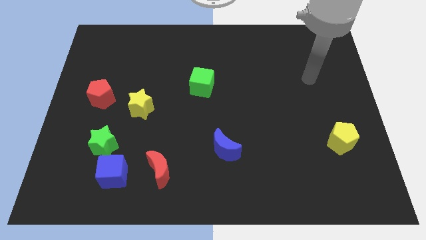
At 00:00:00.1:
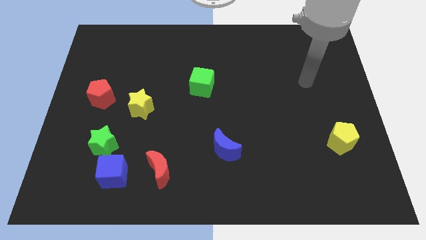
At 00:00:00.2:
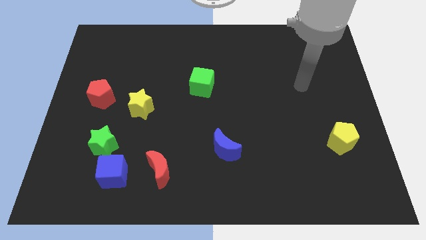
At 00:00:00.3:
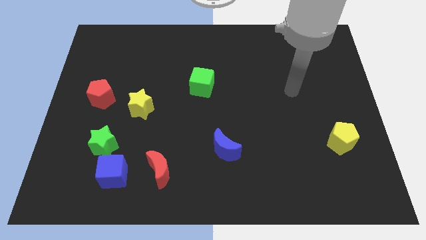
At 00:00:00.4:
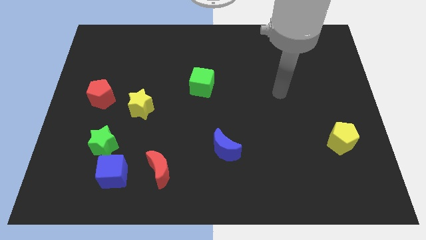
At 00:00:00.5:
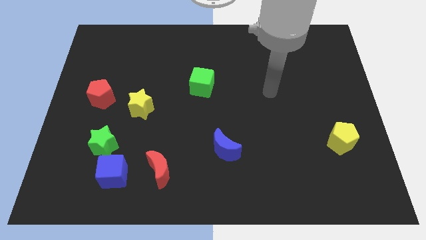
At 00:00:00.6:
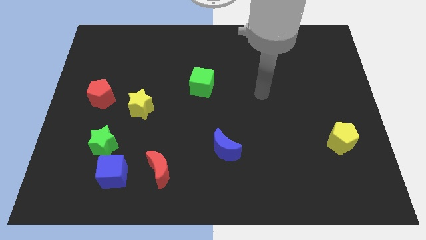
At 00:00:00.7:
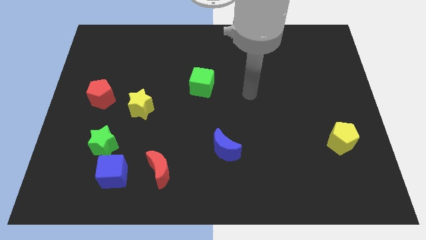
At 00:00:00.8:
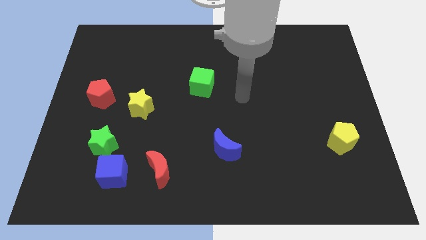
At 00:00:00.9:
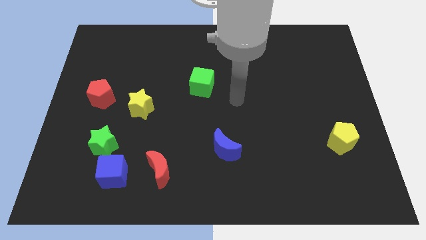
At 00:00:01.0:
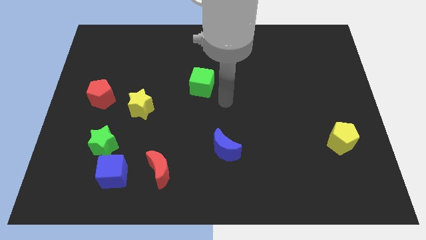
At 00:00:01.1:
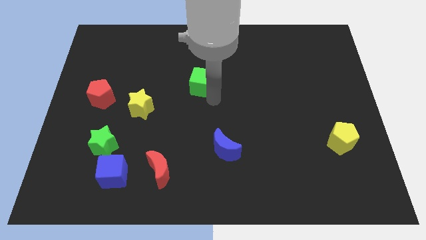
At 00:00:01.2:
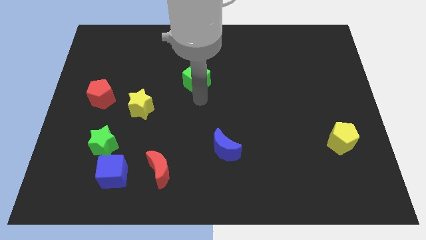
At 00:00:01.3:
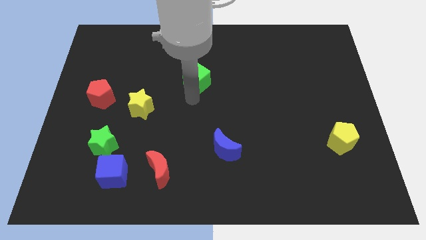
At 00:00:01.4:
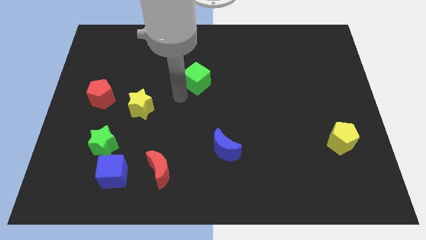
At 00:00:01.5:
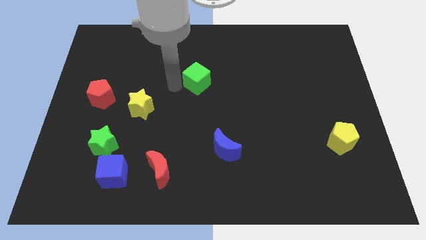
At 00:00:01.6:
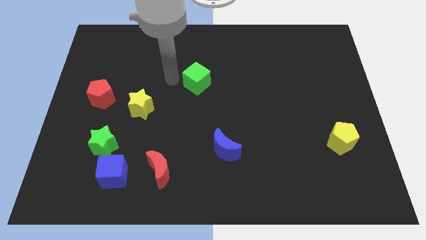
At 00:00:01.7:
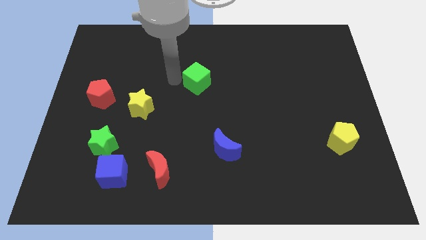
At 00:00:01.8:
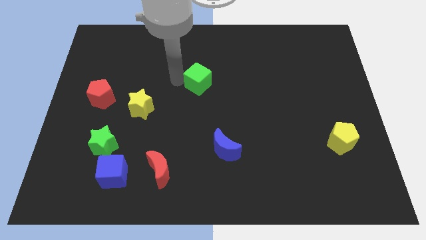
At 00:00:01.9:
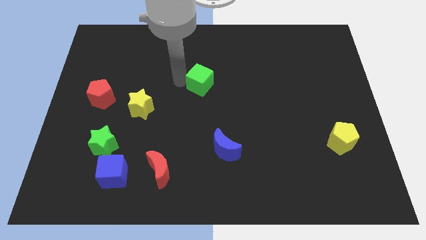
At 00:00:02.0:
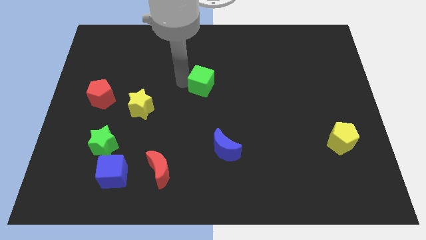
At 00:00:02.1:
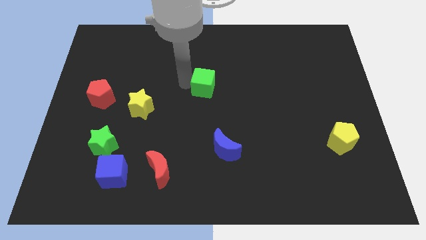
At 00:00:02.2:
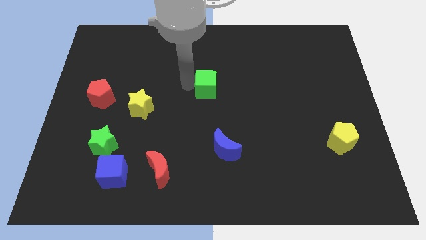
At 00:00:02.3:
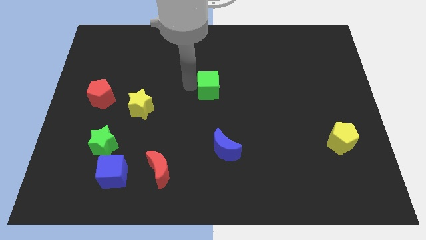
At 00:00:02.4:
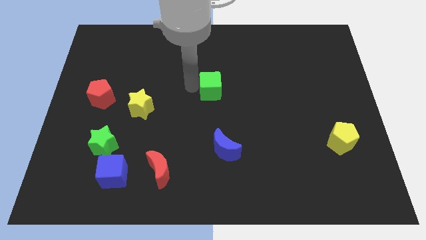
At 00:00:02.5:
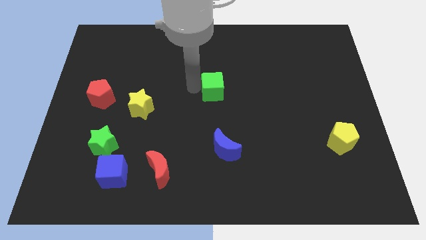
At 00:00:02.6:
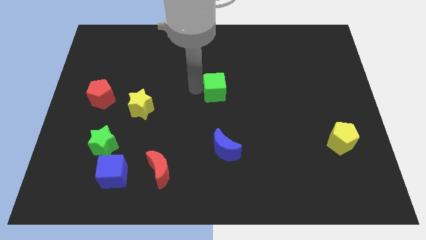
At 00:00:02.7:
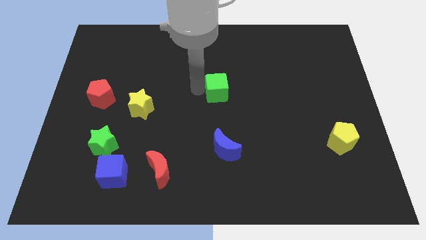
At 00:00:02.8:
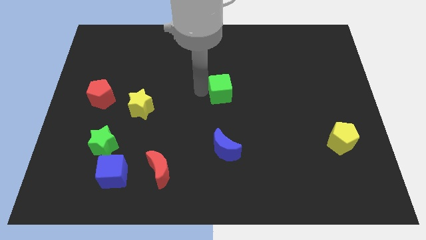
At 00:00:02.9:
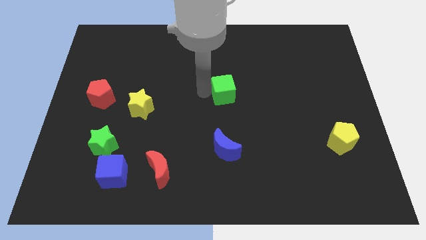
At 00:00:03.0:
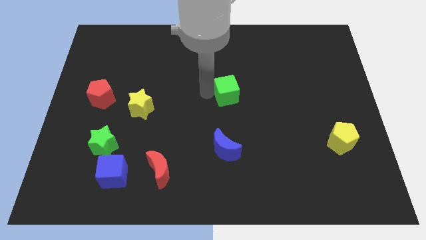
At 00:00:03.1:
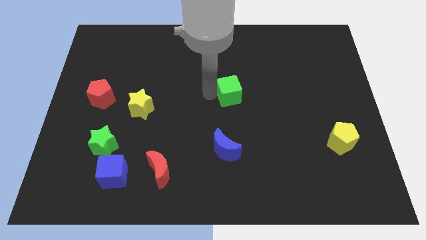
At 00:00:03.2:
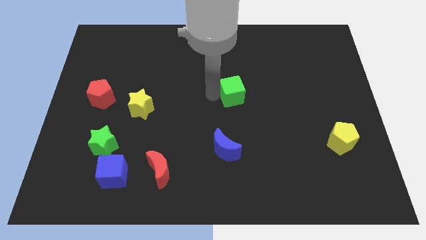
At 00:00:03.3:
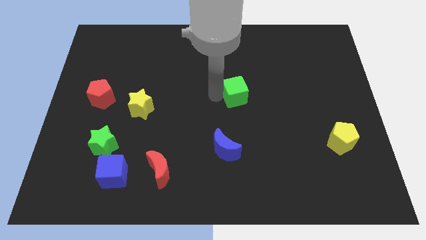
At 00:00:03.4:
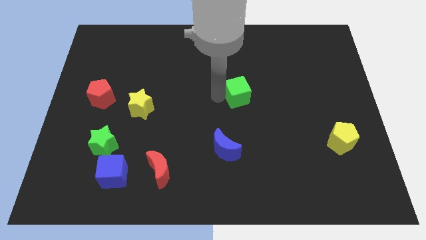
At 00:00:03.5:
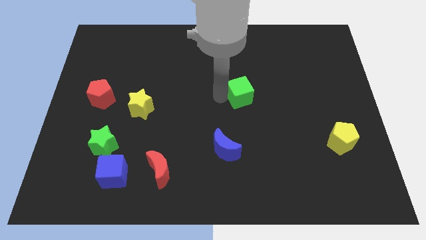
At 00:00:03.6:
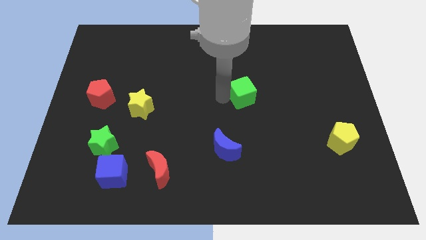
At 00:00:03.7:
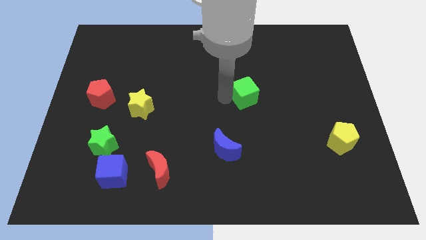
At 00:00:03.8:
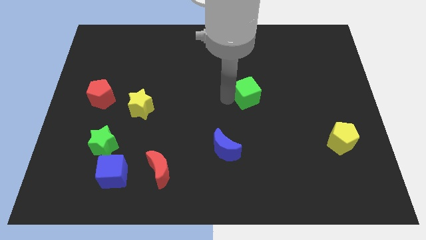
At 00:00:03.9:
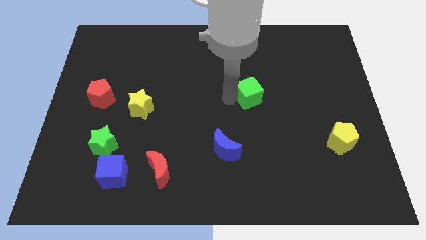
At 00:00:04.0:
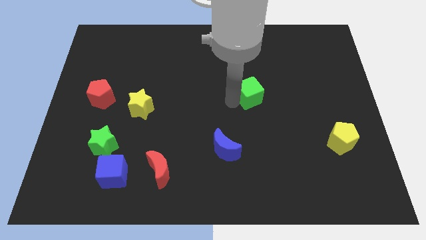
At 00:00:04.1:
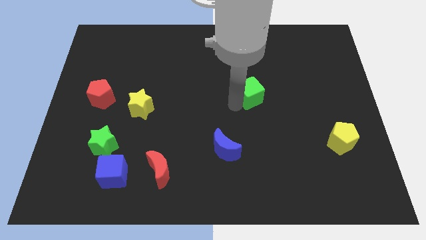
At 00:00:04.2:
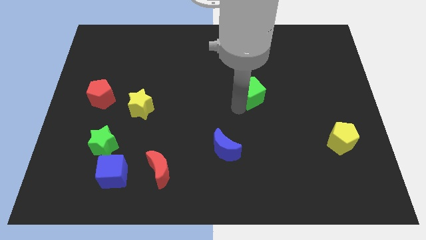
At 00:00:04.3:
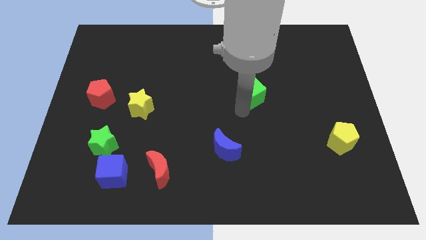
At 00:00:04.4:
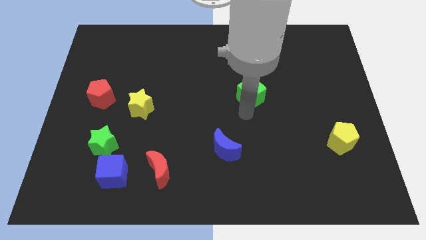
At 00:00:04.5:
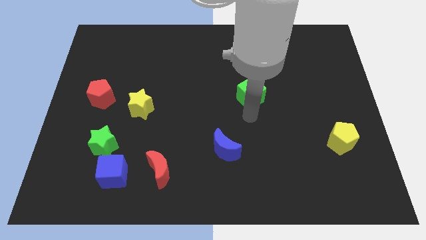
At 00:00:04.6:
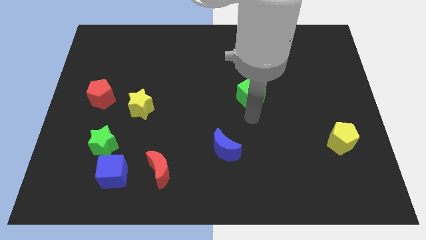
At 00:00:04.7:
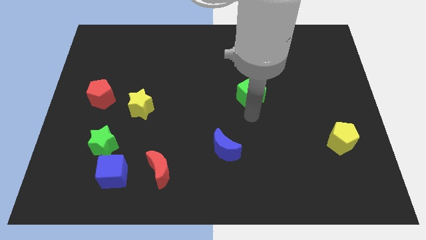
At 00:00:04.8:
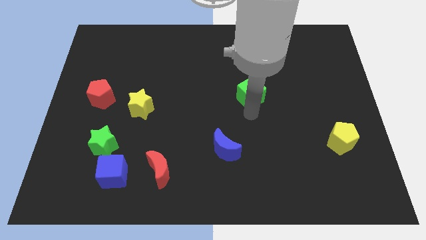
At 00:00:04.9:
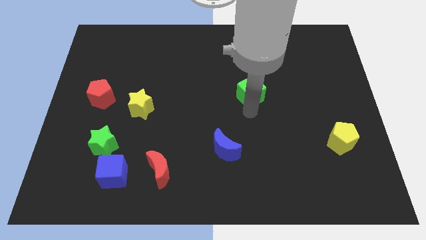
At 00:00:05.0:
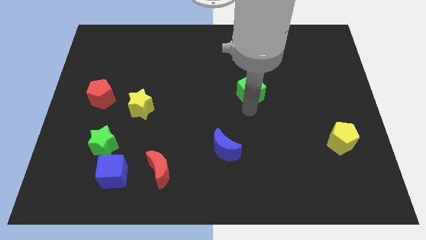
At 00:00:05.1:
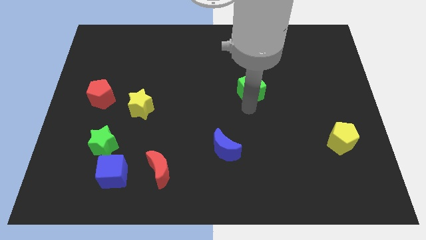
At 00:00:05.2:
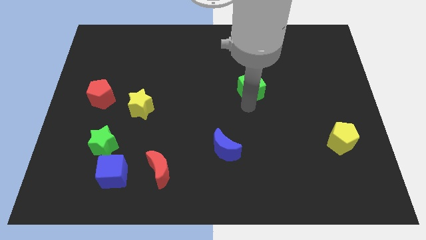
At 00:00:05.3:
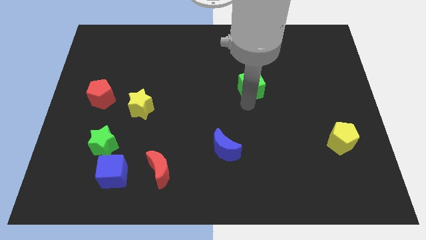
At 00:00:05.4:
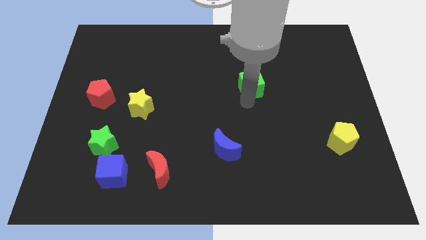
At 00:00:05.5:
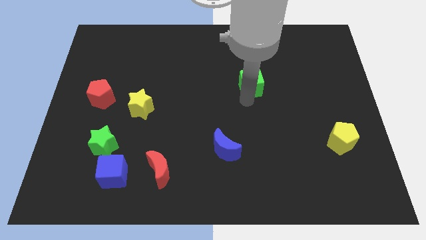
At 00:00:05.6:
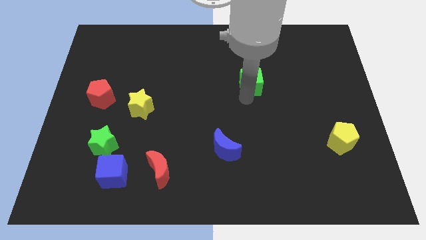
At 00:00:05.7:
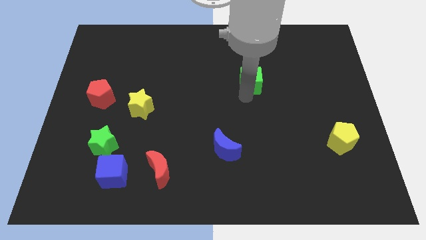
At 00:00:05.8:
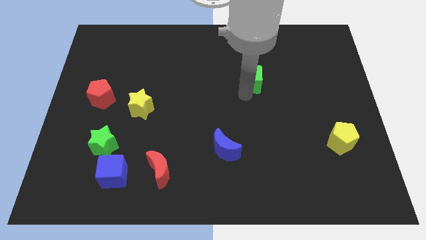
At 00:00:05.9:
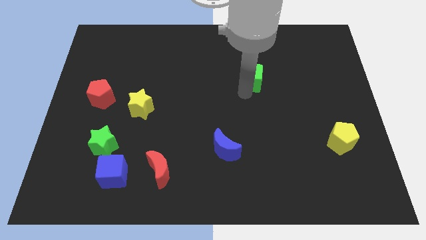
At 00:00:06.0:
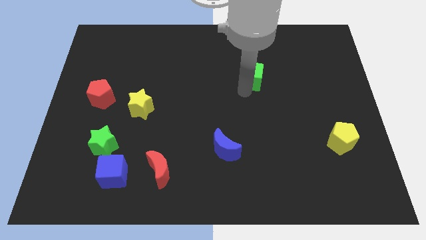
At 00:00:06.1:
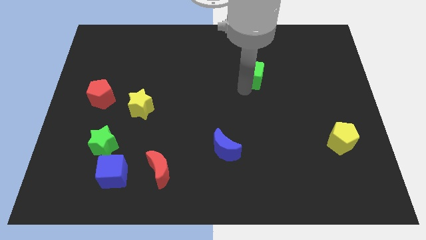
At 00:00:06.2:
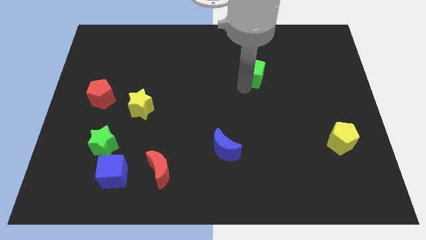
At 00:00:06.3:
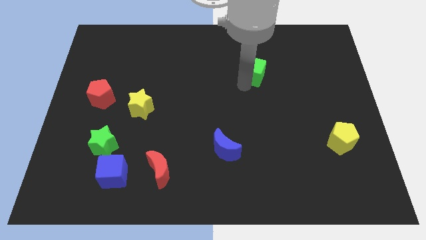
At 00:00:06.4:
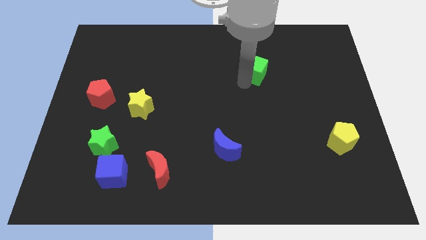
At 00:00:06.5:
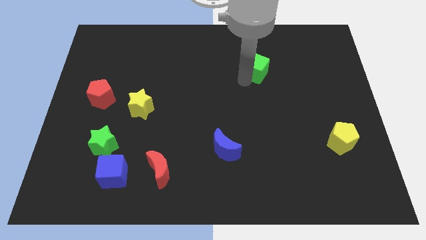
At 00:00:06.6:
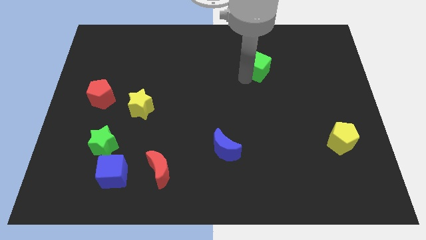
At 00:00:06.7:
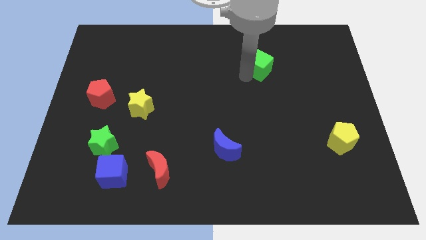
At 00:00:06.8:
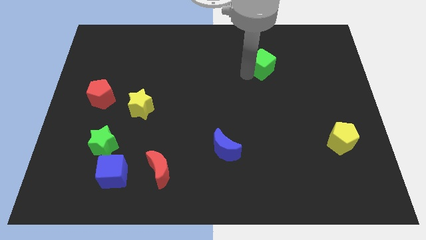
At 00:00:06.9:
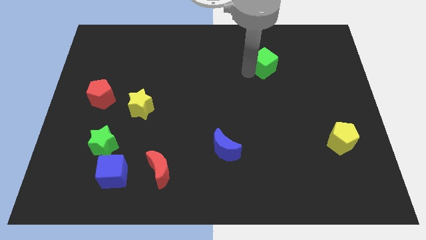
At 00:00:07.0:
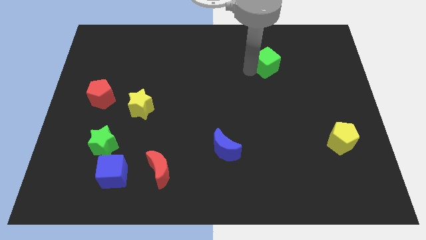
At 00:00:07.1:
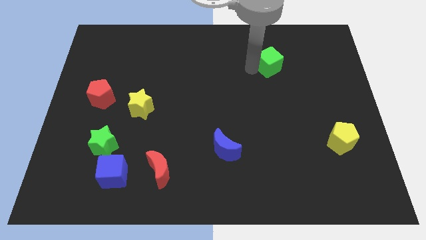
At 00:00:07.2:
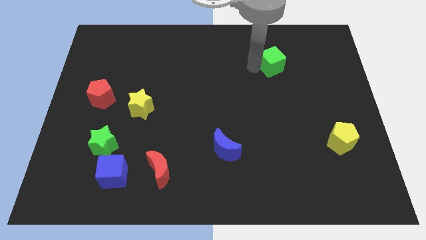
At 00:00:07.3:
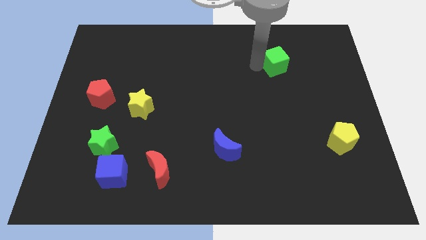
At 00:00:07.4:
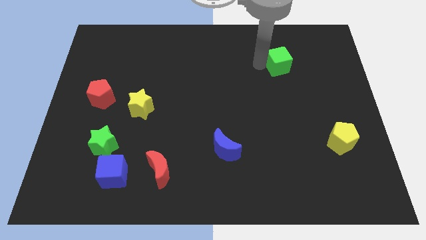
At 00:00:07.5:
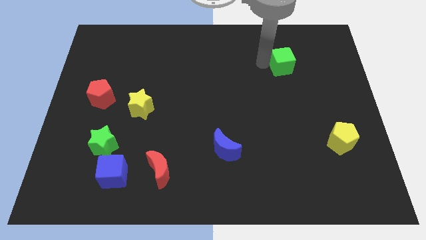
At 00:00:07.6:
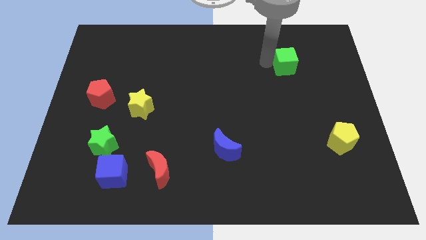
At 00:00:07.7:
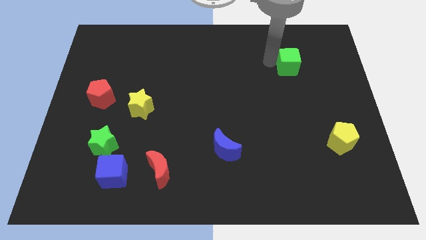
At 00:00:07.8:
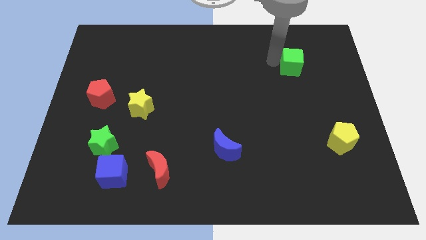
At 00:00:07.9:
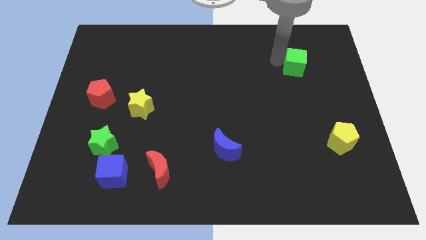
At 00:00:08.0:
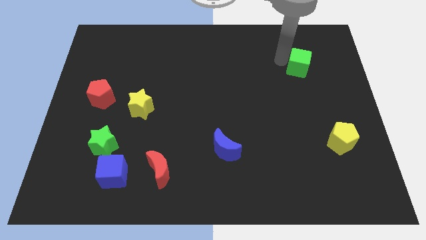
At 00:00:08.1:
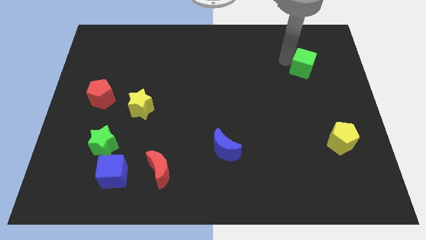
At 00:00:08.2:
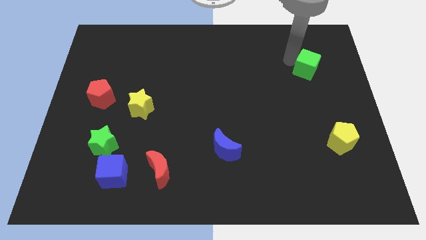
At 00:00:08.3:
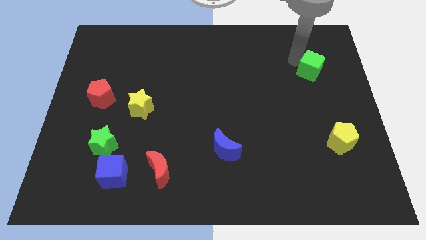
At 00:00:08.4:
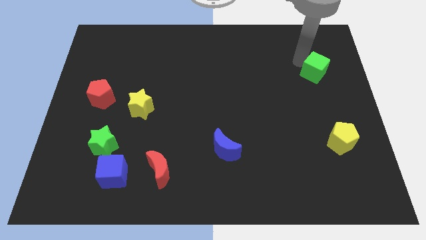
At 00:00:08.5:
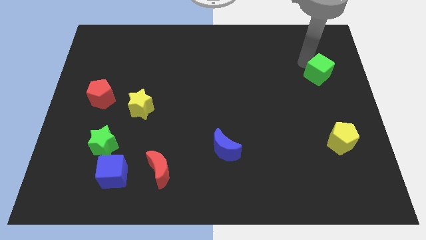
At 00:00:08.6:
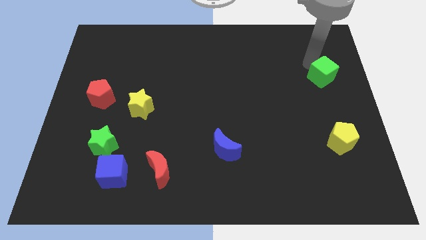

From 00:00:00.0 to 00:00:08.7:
move the green cube to the center right
